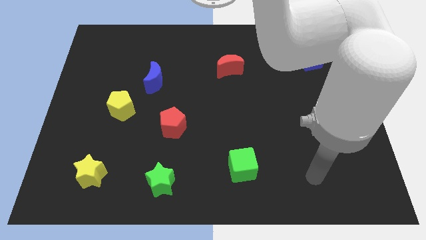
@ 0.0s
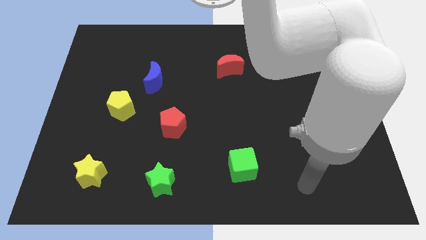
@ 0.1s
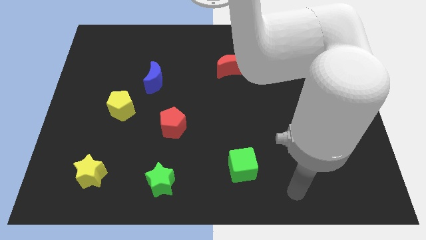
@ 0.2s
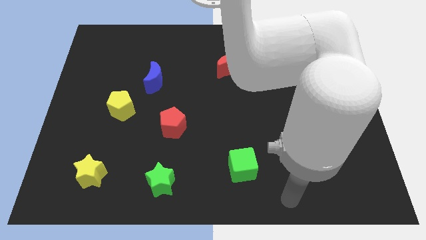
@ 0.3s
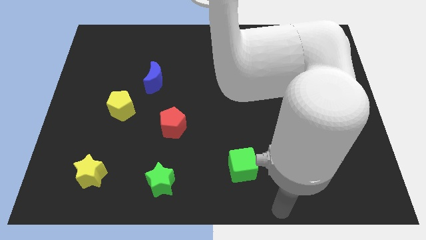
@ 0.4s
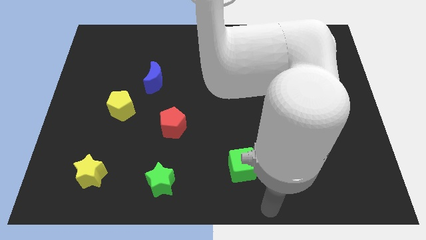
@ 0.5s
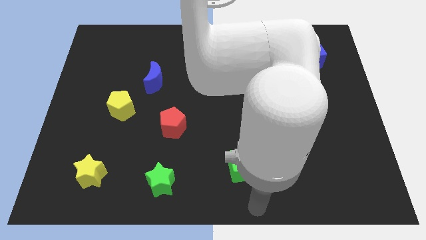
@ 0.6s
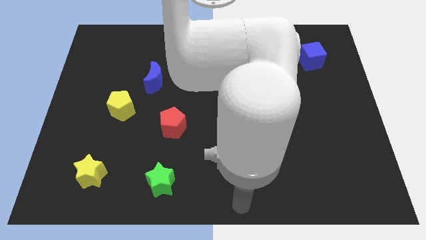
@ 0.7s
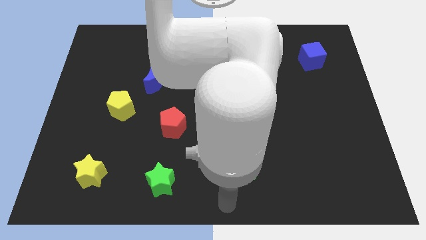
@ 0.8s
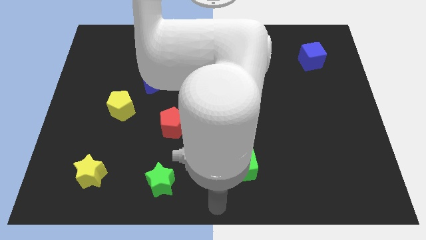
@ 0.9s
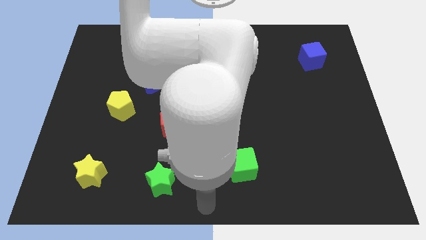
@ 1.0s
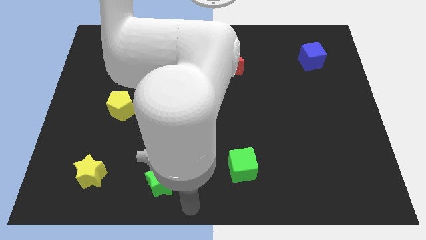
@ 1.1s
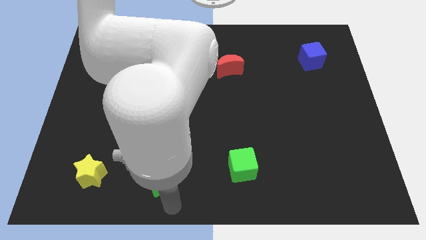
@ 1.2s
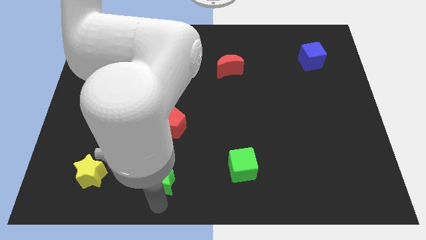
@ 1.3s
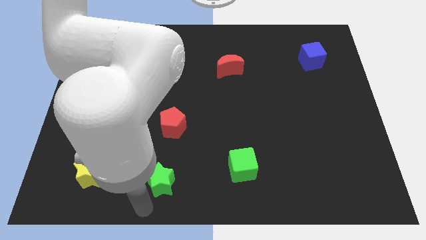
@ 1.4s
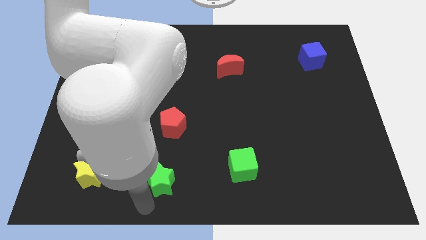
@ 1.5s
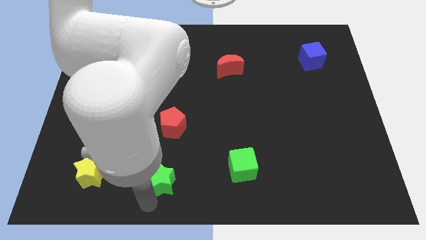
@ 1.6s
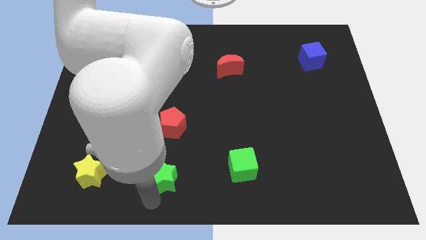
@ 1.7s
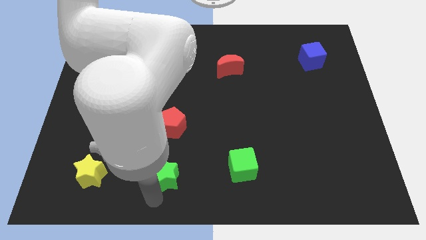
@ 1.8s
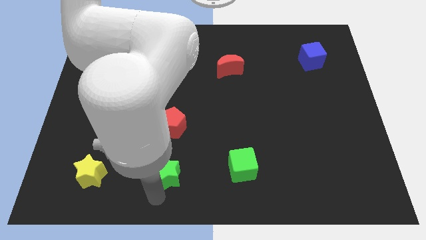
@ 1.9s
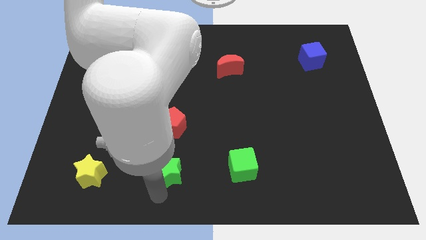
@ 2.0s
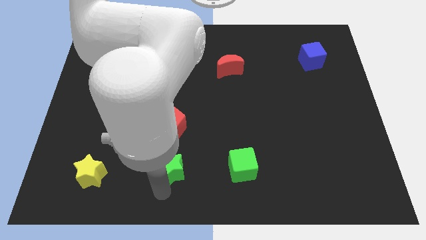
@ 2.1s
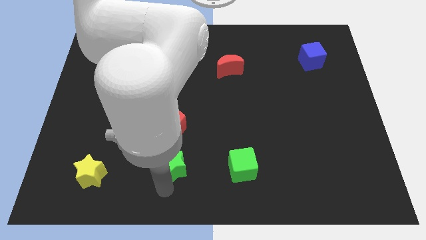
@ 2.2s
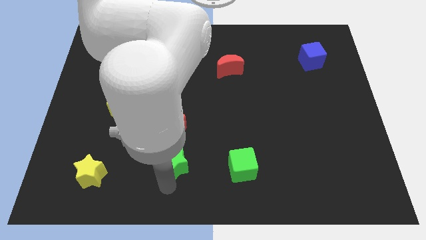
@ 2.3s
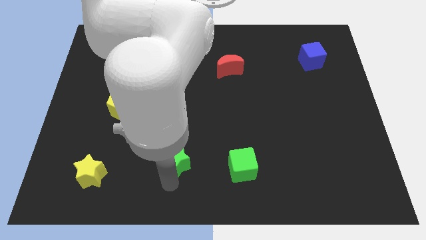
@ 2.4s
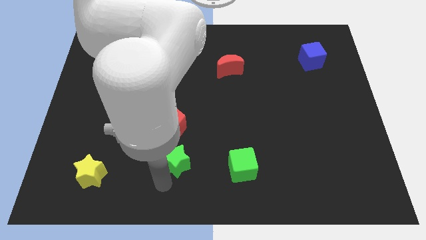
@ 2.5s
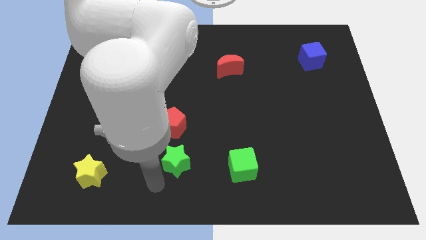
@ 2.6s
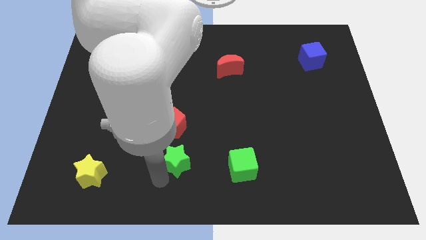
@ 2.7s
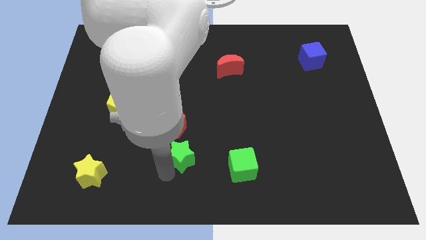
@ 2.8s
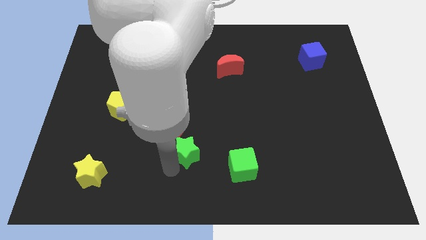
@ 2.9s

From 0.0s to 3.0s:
slide the green star somewhat up and then to the right

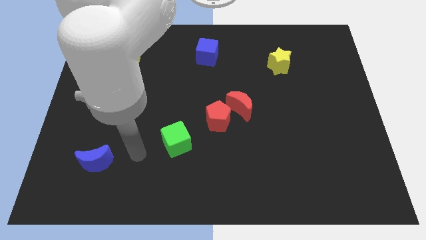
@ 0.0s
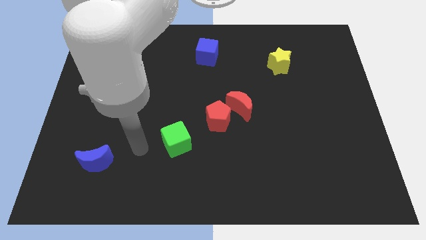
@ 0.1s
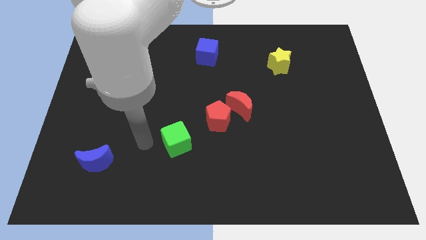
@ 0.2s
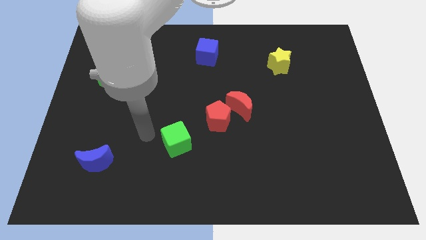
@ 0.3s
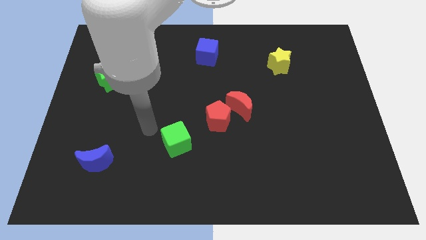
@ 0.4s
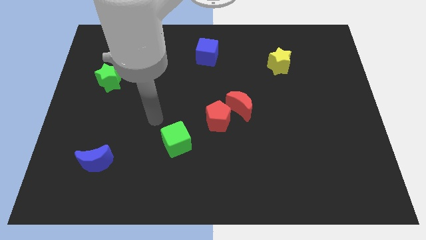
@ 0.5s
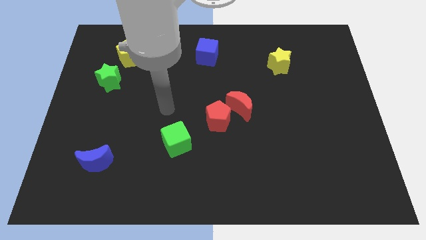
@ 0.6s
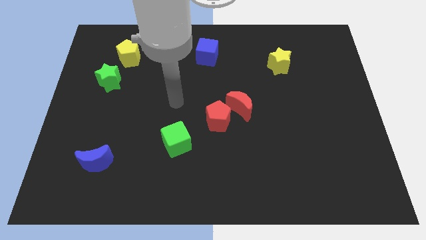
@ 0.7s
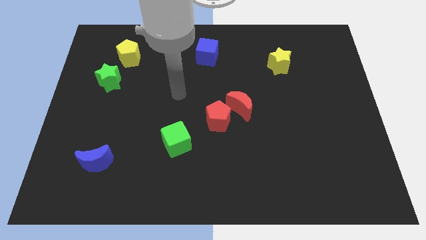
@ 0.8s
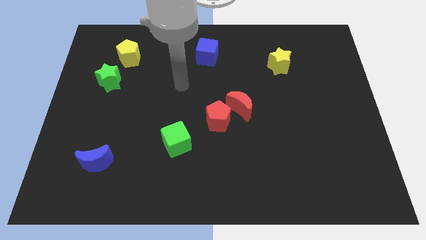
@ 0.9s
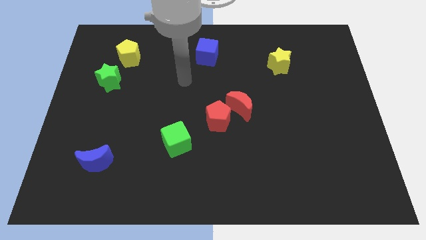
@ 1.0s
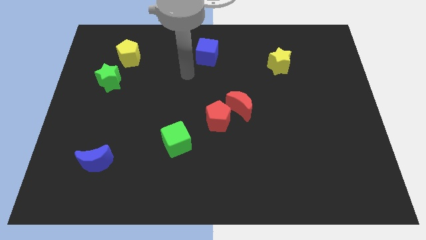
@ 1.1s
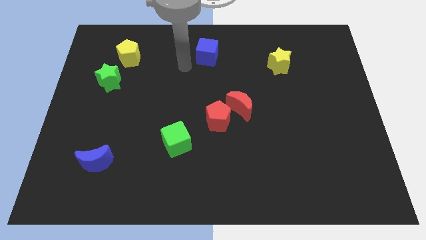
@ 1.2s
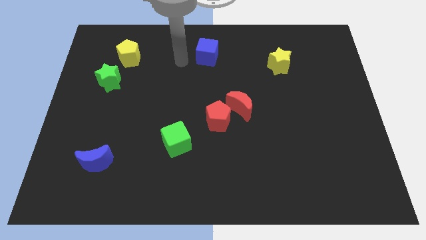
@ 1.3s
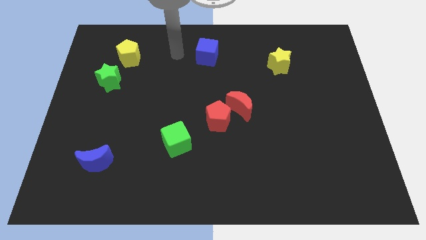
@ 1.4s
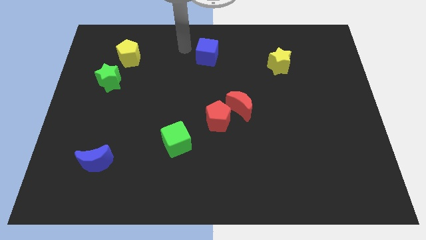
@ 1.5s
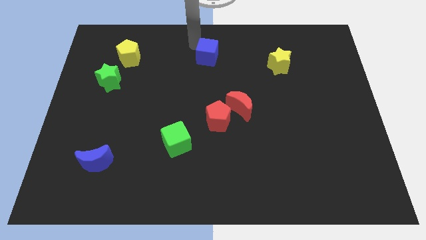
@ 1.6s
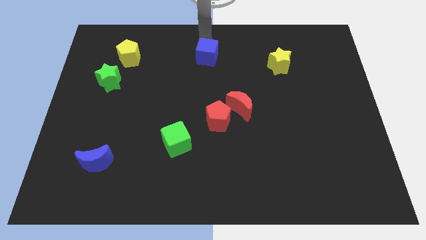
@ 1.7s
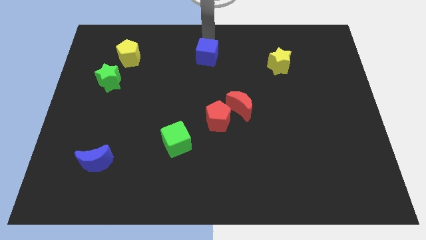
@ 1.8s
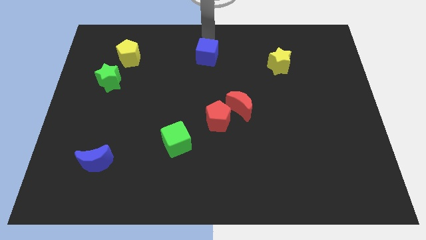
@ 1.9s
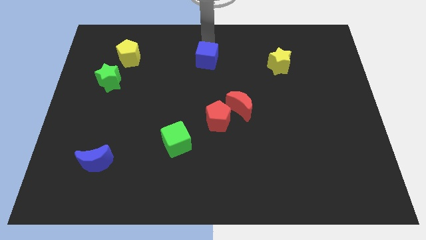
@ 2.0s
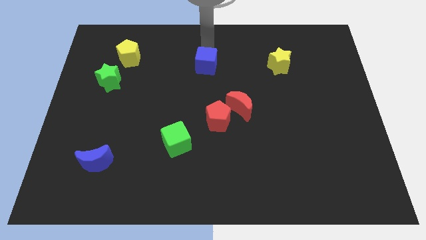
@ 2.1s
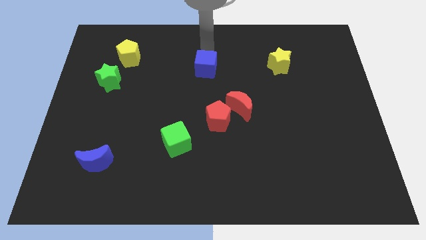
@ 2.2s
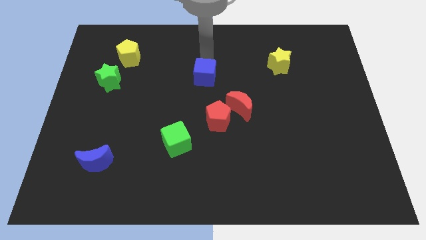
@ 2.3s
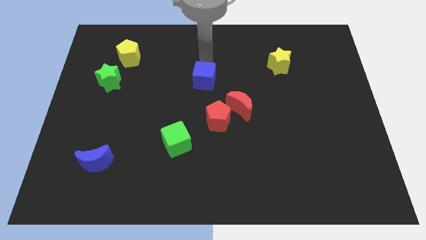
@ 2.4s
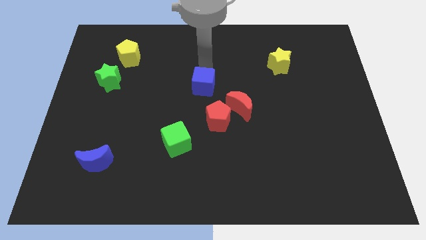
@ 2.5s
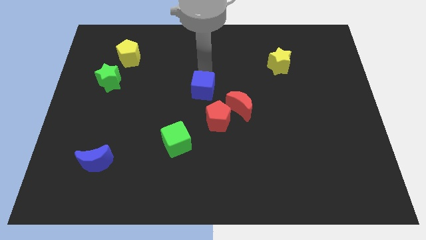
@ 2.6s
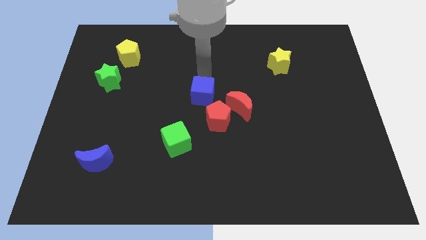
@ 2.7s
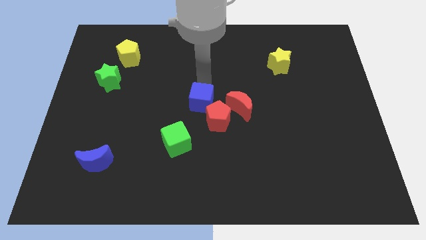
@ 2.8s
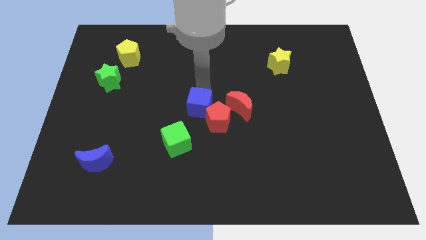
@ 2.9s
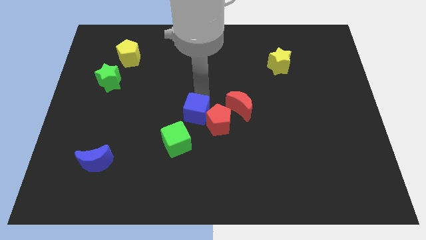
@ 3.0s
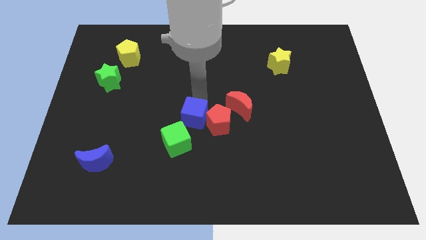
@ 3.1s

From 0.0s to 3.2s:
push the blue cube down

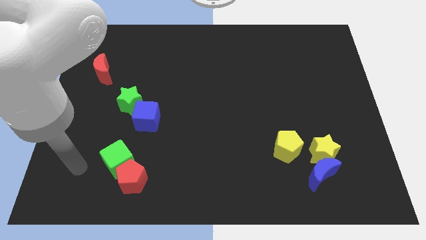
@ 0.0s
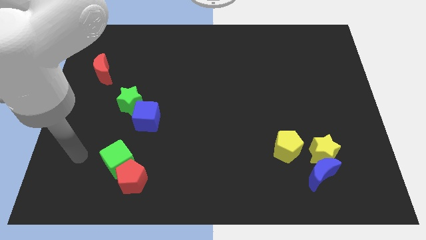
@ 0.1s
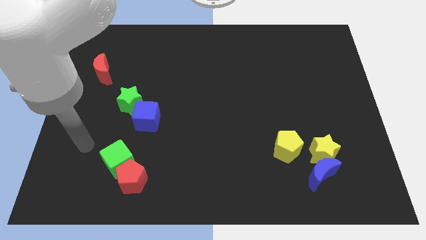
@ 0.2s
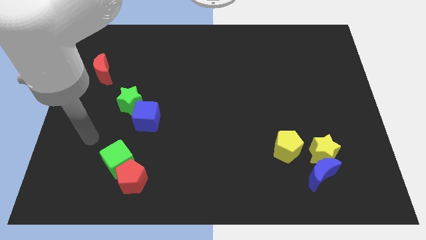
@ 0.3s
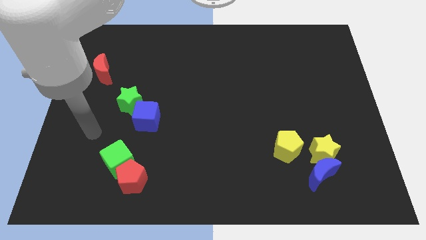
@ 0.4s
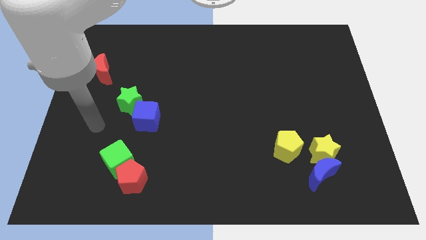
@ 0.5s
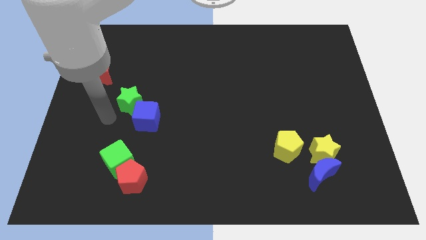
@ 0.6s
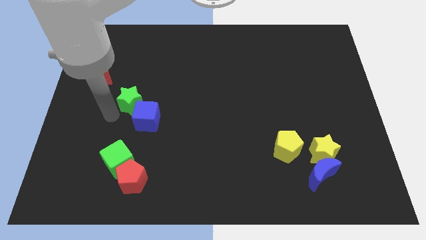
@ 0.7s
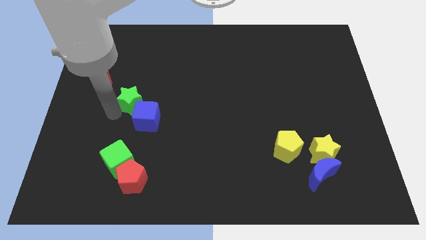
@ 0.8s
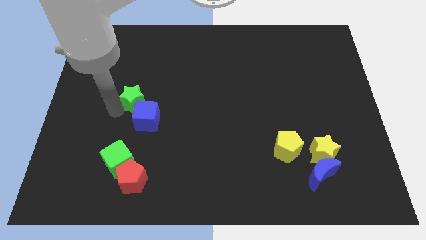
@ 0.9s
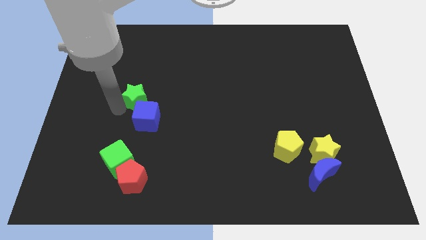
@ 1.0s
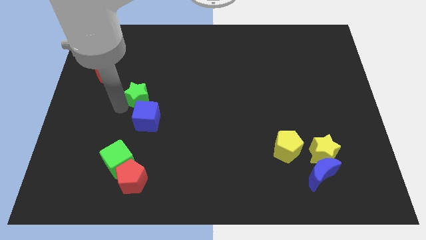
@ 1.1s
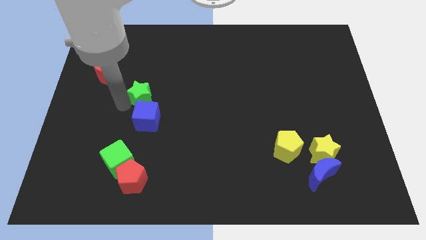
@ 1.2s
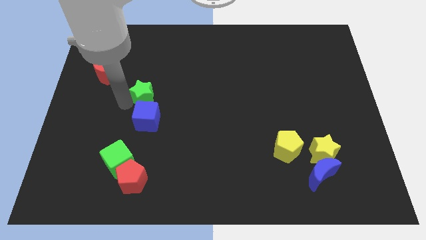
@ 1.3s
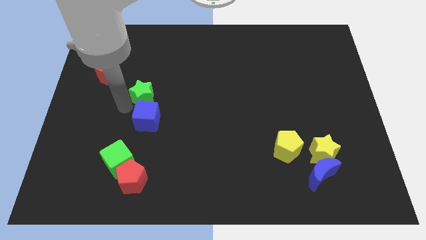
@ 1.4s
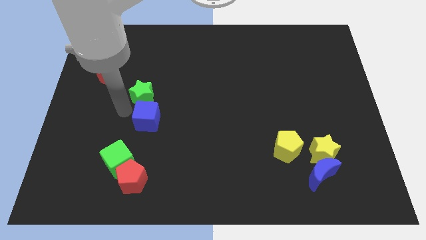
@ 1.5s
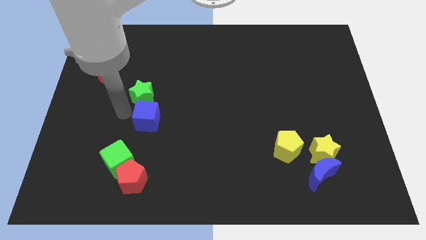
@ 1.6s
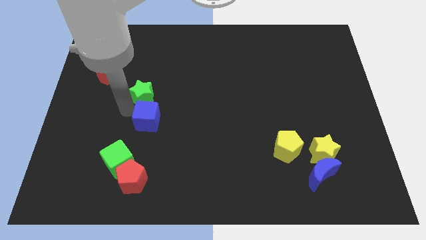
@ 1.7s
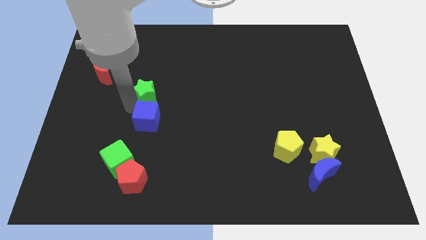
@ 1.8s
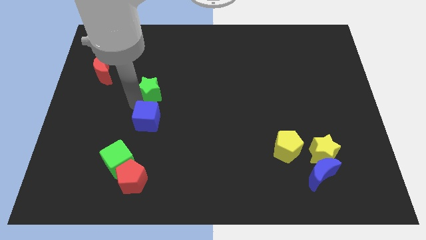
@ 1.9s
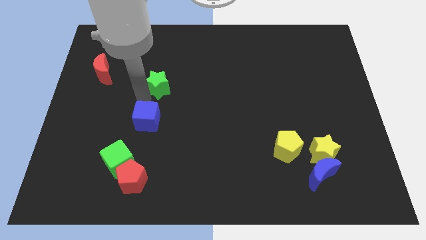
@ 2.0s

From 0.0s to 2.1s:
slide the green star a little bit diagonally up and right
